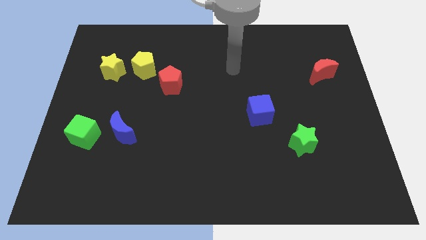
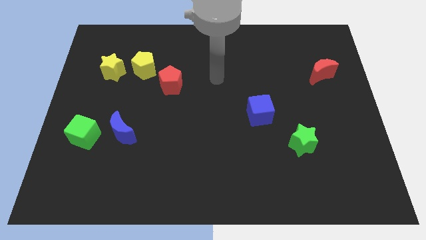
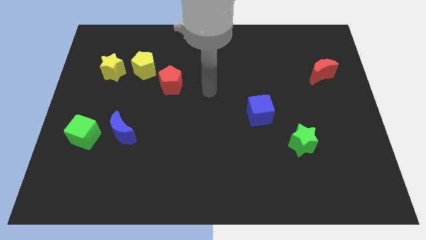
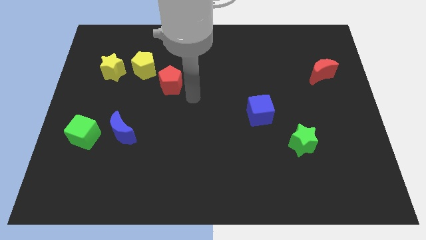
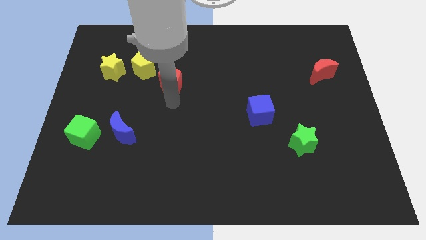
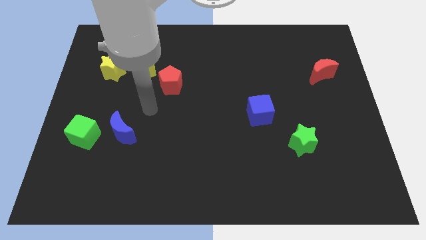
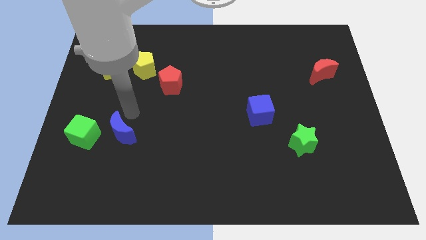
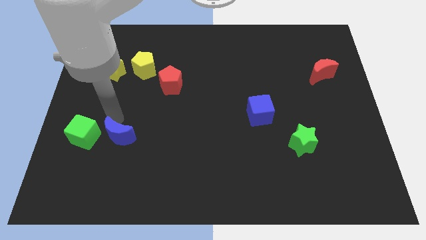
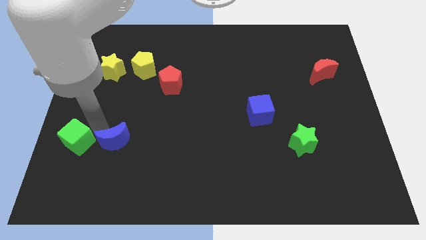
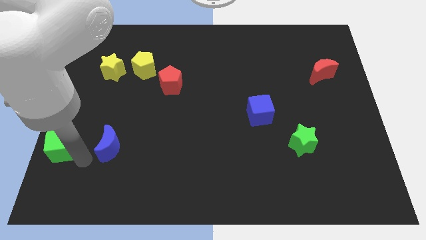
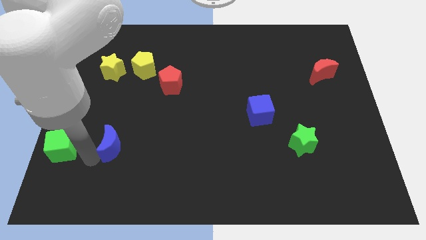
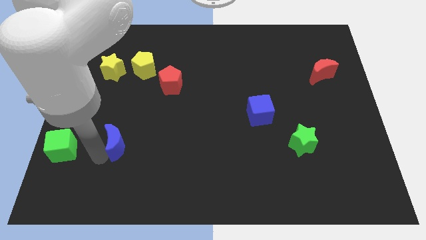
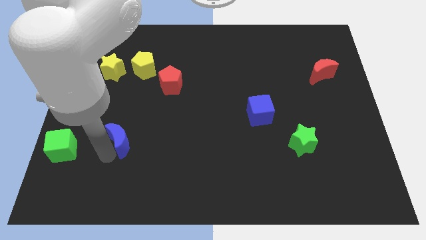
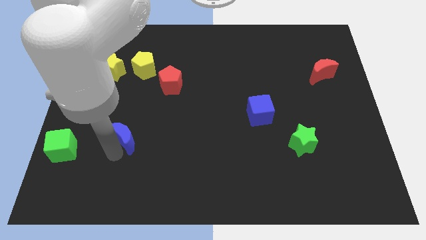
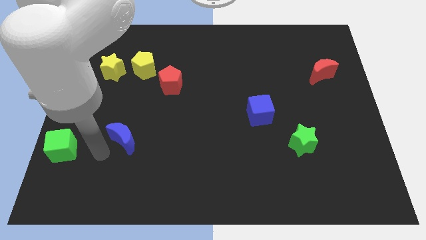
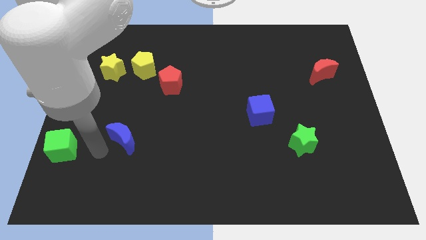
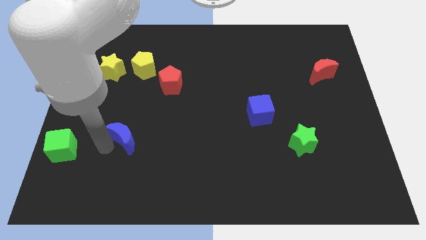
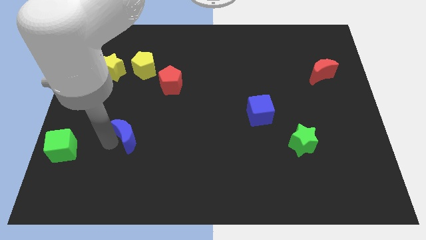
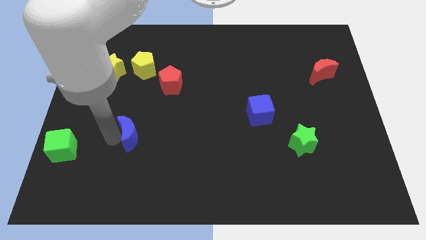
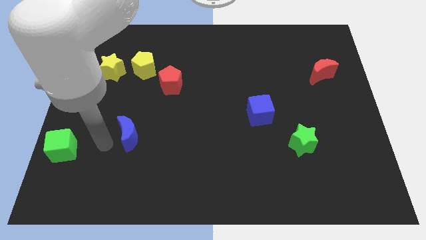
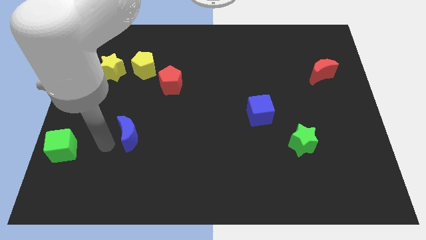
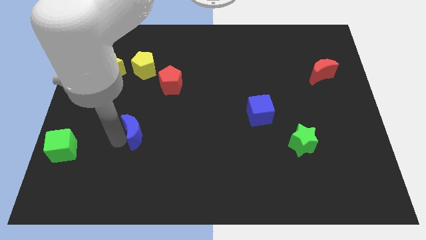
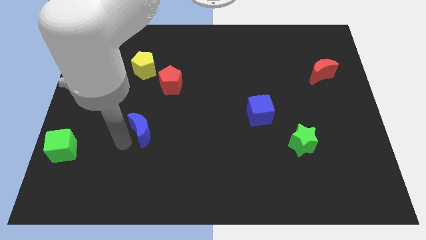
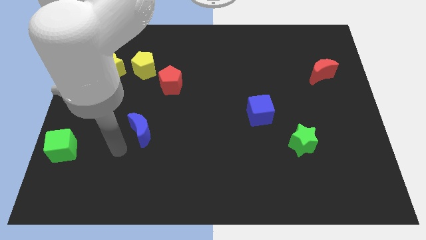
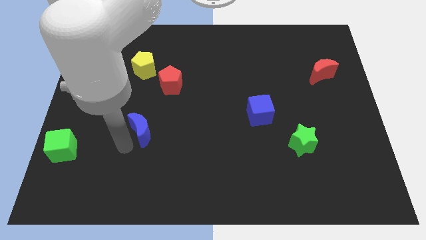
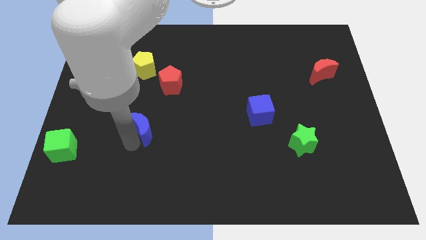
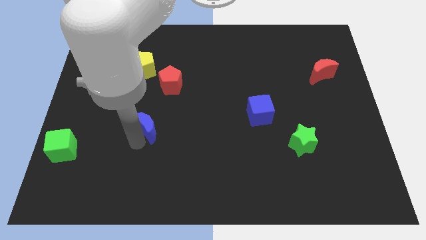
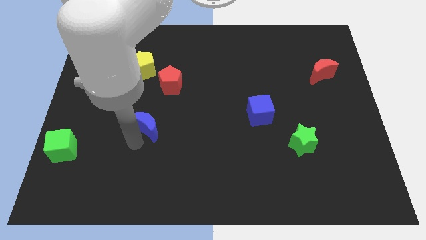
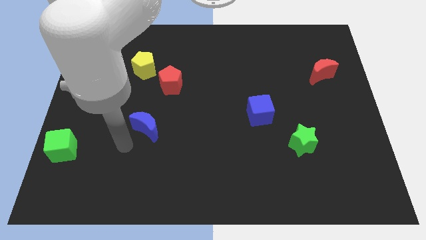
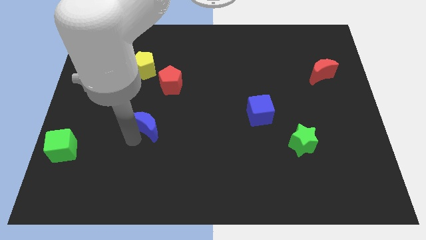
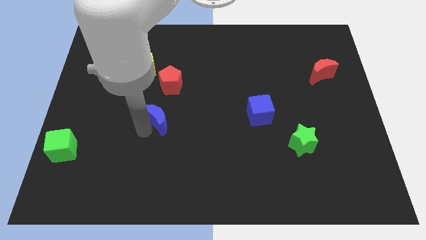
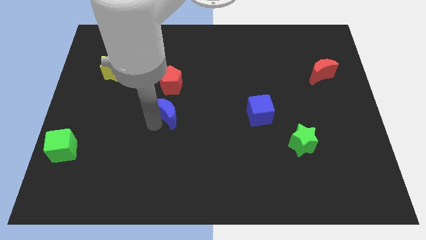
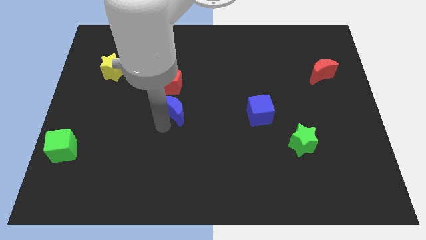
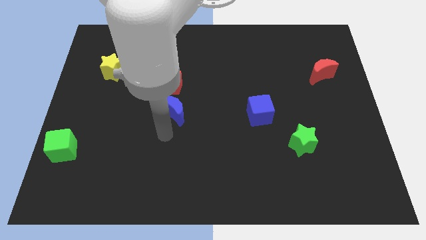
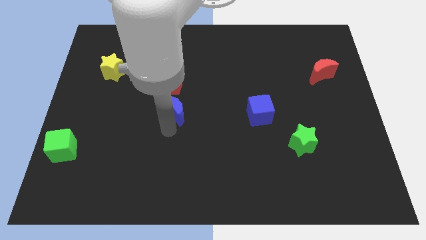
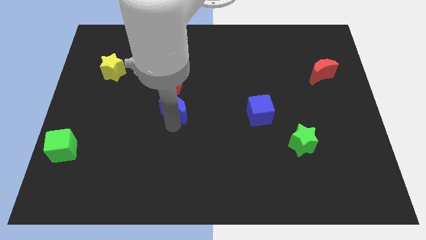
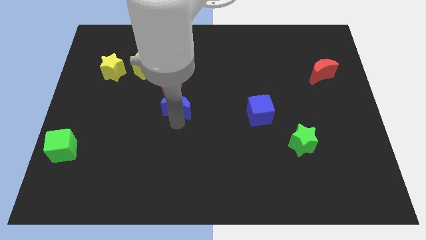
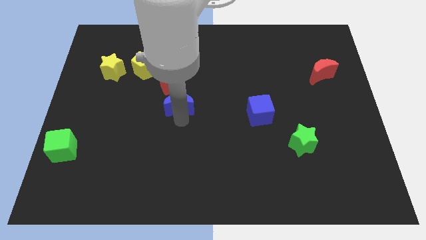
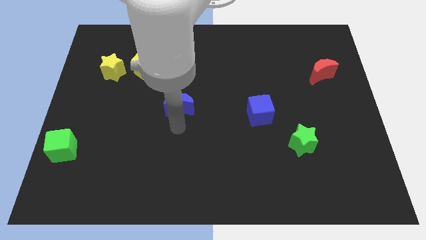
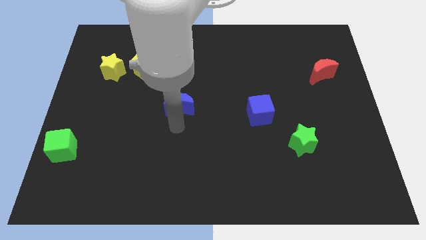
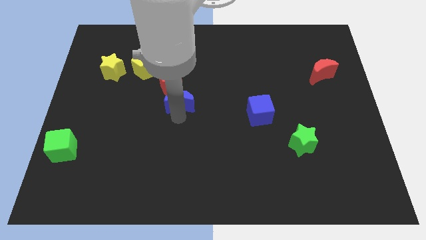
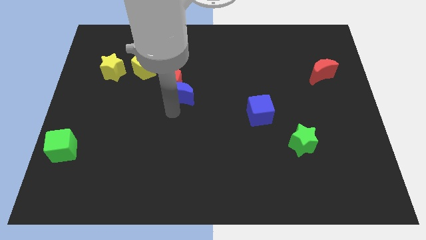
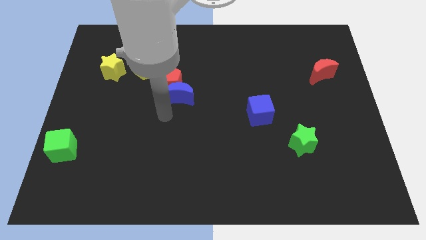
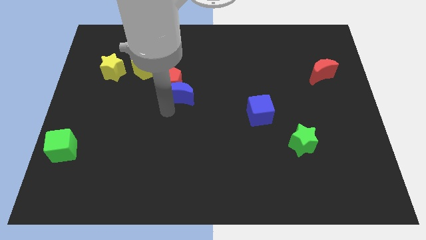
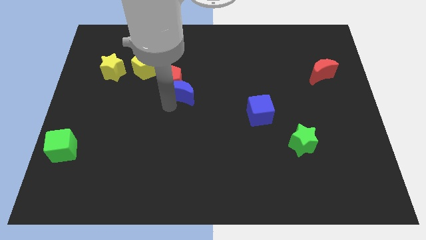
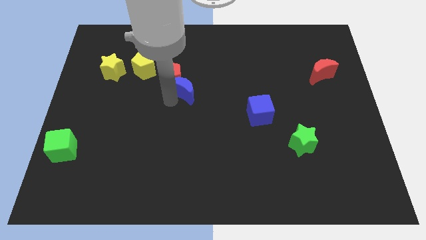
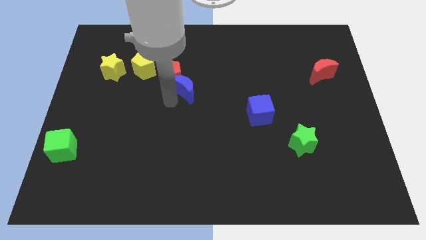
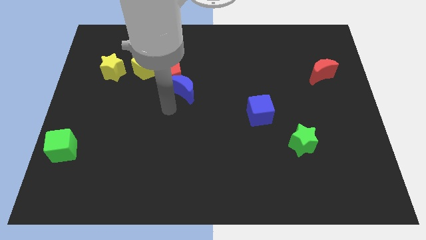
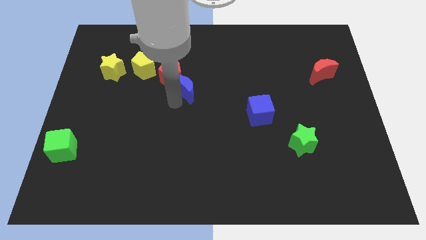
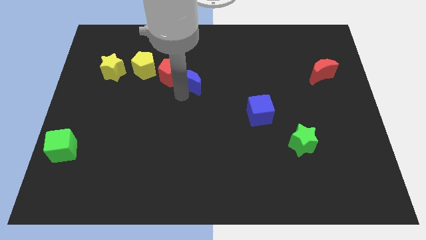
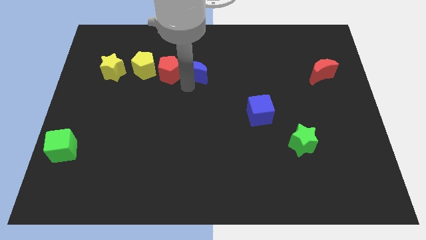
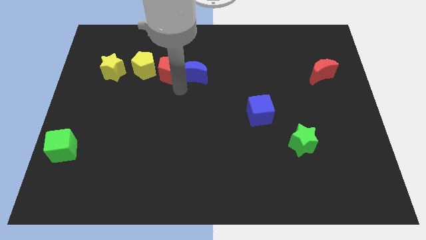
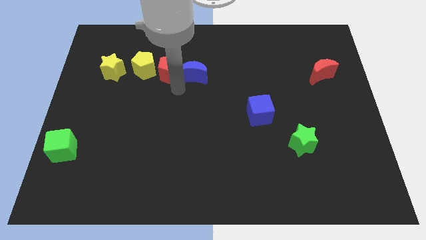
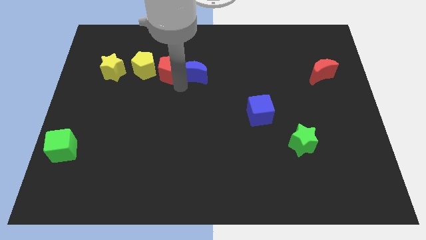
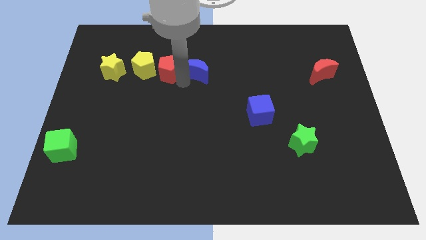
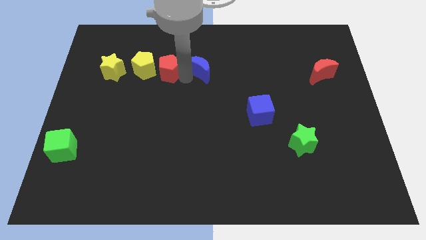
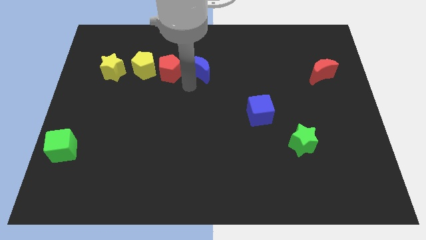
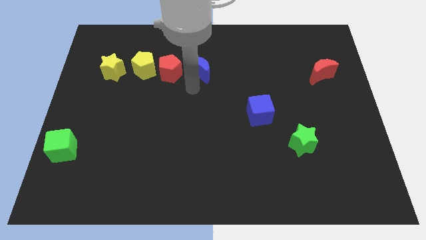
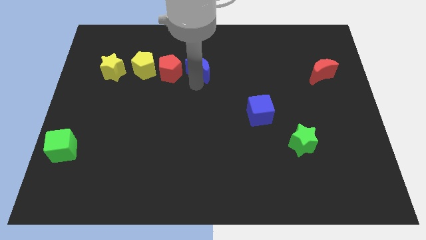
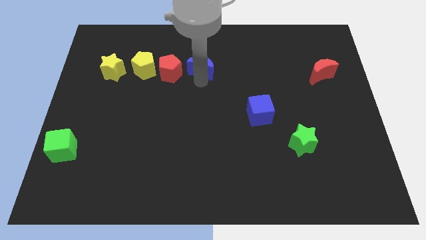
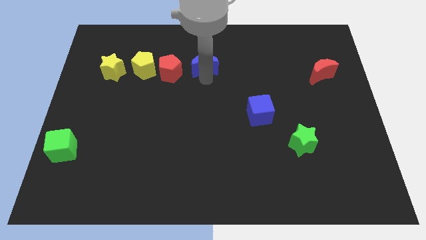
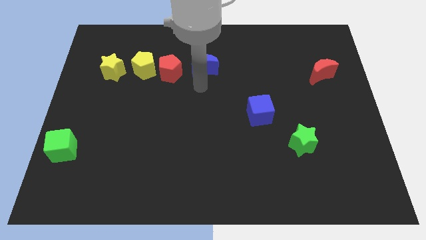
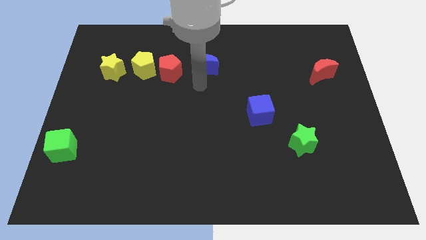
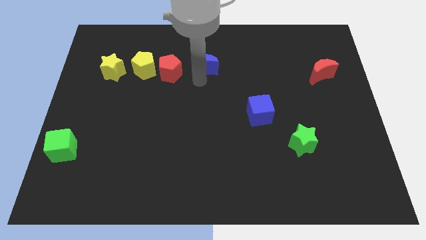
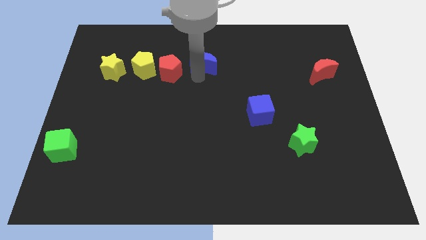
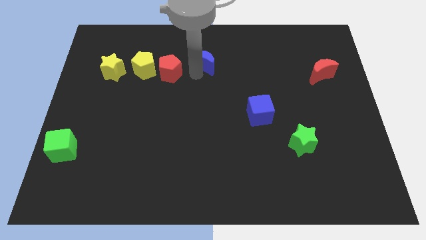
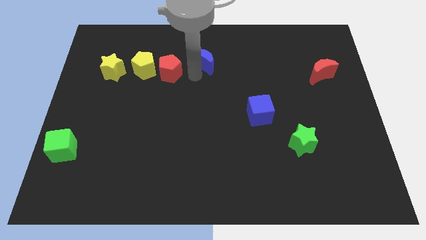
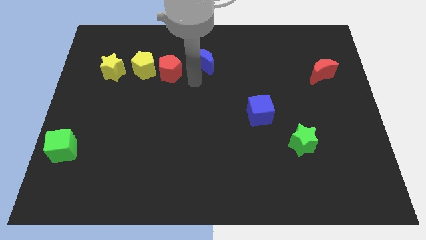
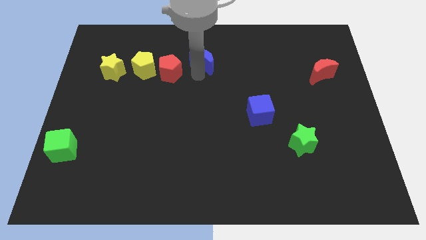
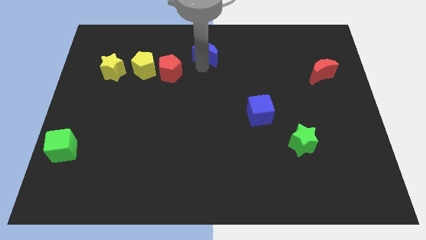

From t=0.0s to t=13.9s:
move the blue moon to the top side
